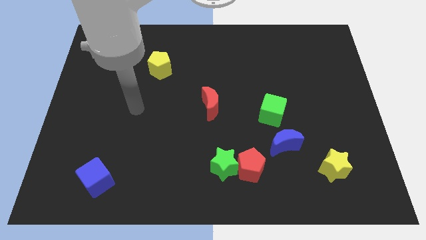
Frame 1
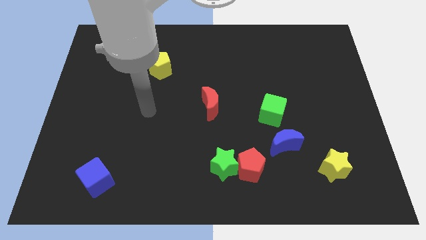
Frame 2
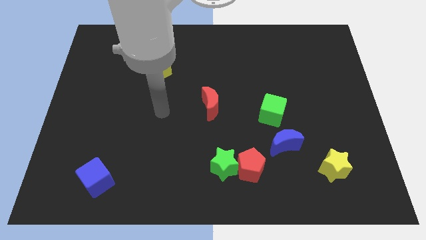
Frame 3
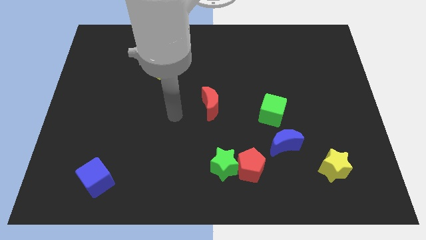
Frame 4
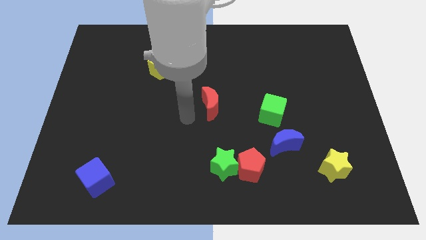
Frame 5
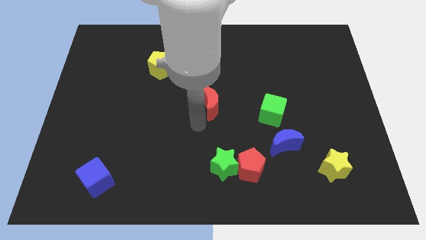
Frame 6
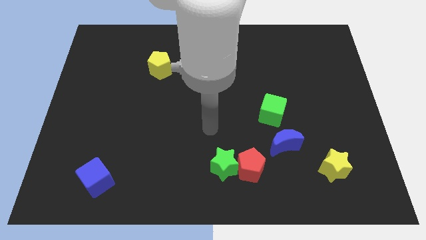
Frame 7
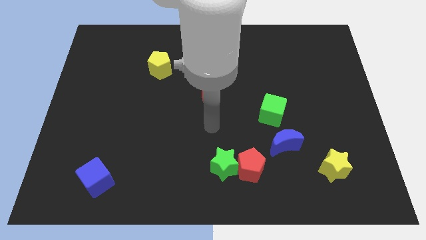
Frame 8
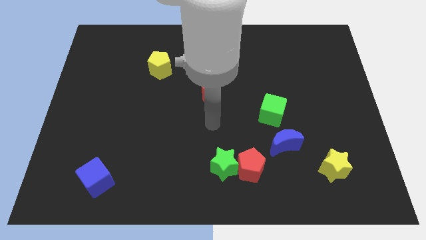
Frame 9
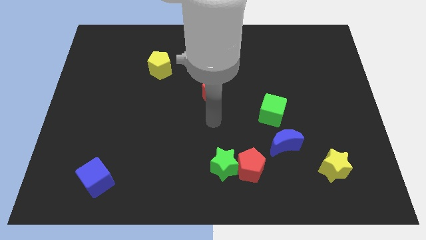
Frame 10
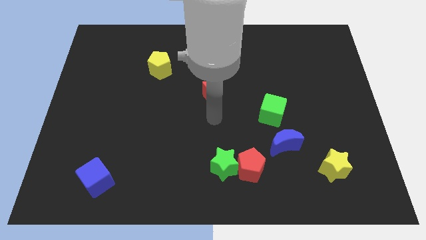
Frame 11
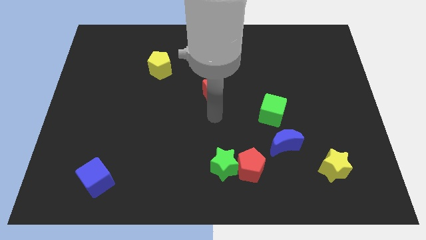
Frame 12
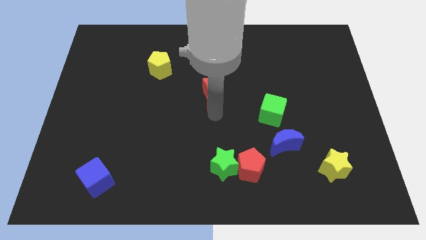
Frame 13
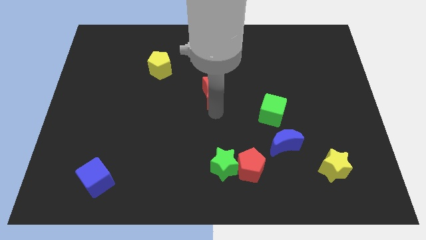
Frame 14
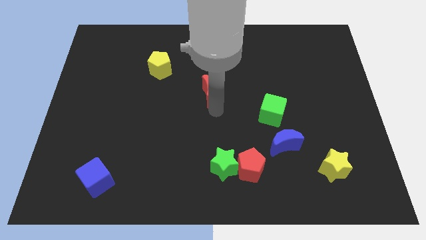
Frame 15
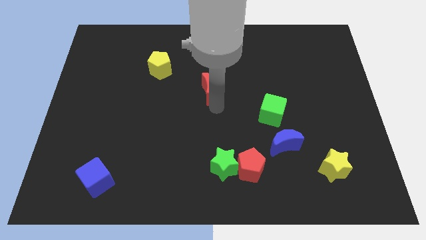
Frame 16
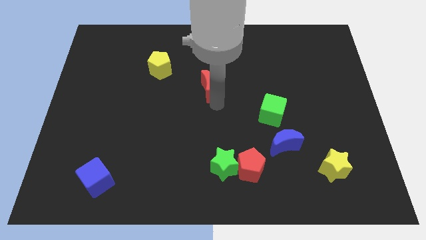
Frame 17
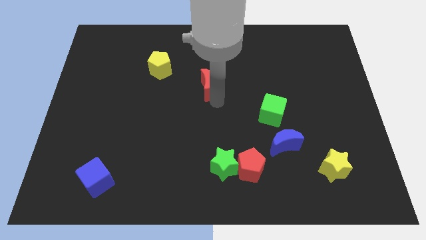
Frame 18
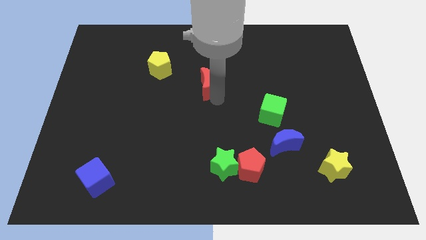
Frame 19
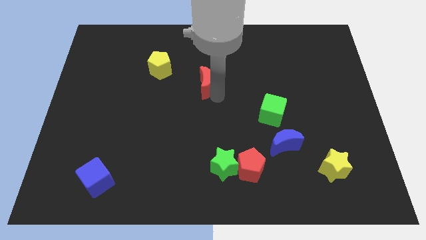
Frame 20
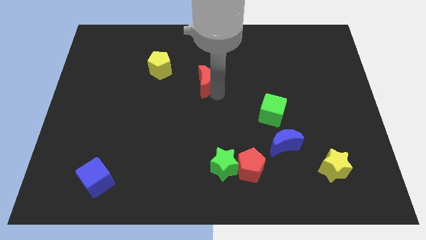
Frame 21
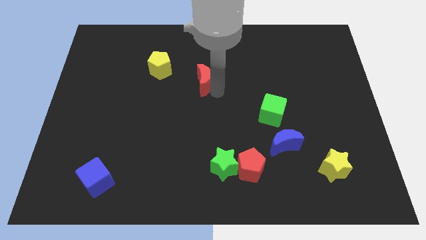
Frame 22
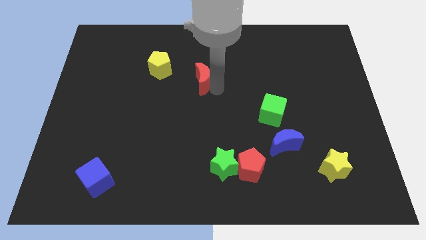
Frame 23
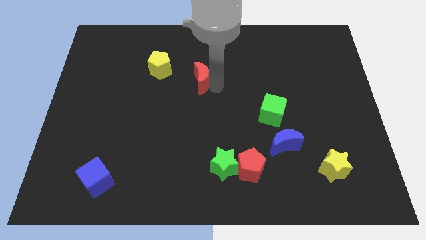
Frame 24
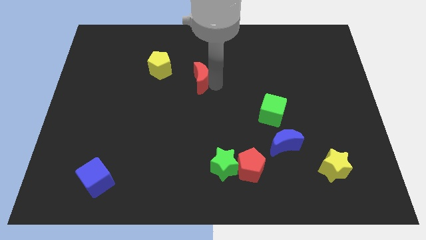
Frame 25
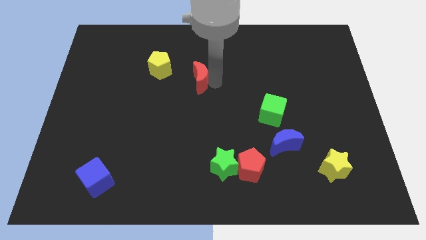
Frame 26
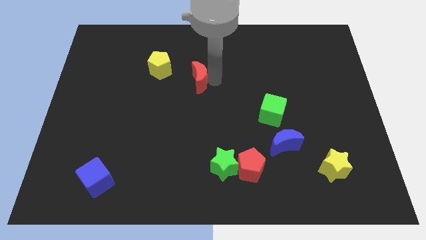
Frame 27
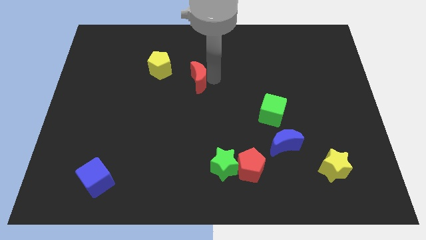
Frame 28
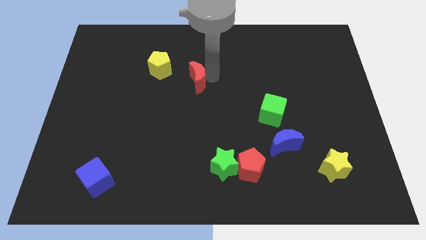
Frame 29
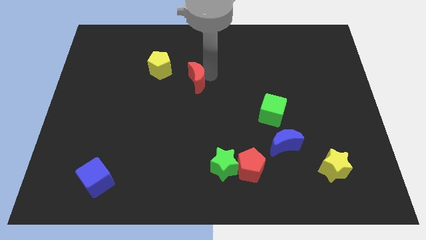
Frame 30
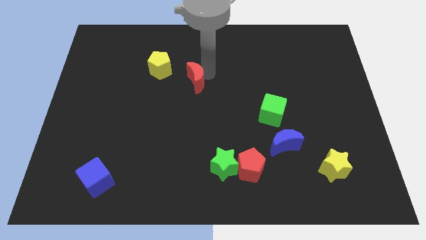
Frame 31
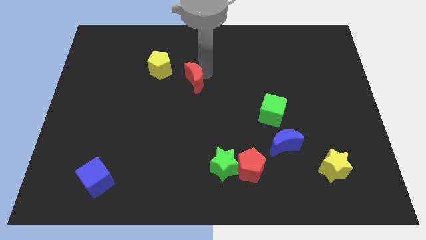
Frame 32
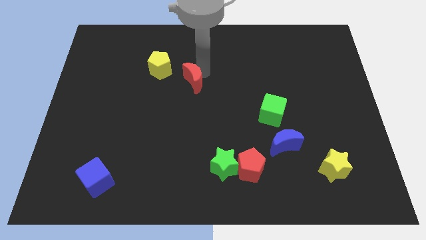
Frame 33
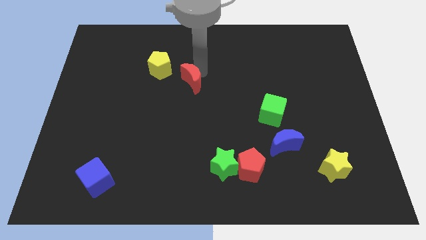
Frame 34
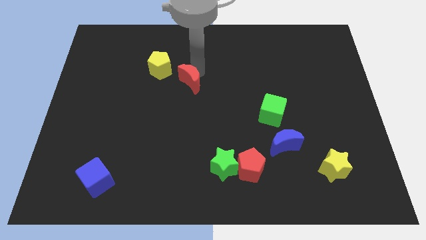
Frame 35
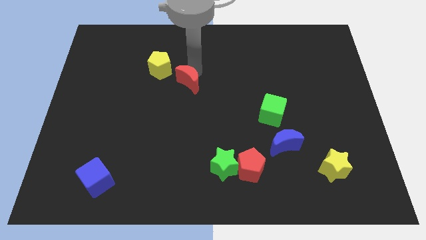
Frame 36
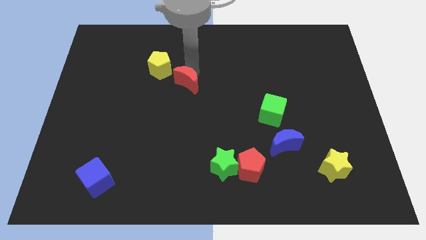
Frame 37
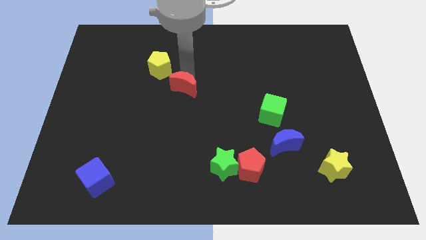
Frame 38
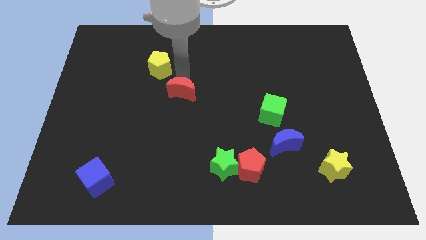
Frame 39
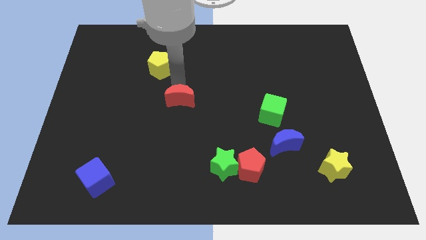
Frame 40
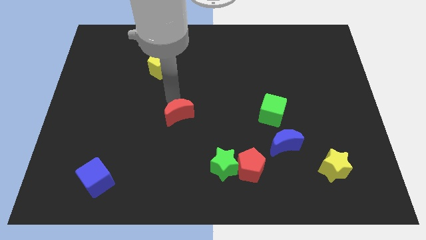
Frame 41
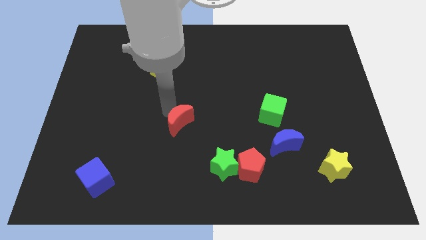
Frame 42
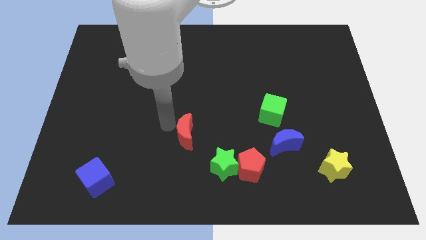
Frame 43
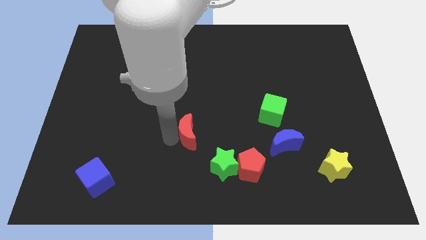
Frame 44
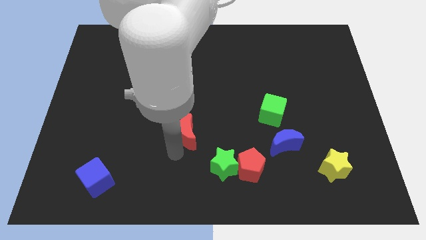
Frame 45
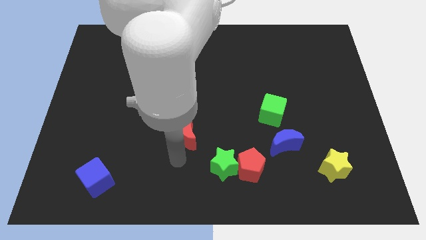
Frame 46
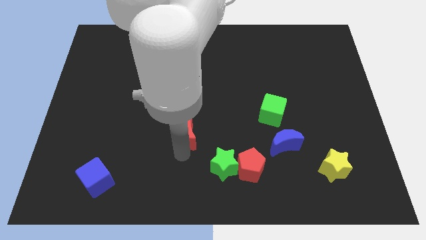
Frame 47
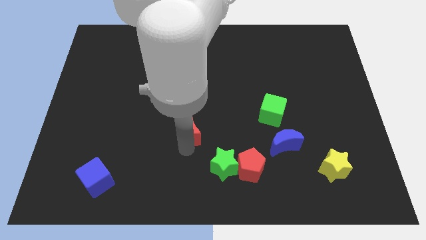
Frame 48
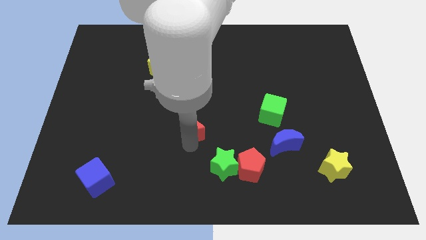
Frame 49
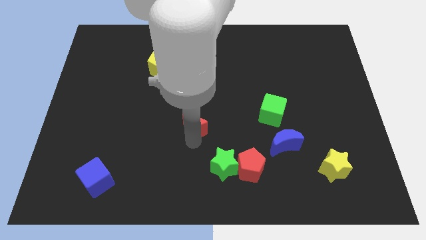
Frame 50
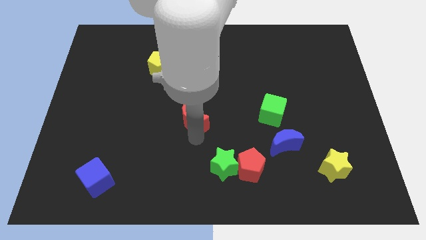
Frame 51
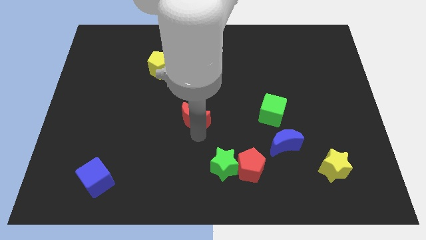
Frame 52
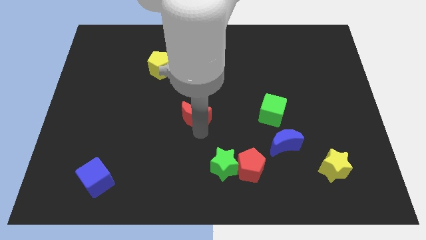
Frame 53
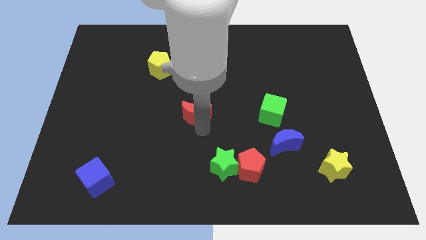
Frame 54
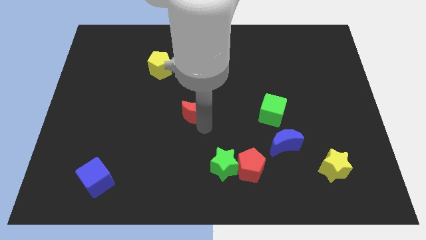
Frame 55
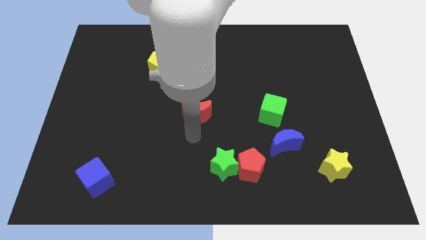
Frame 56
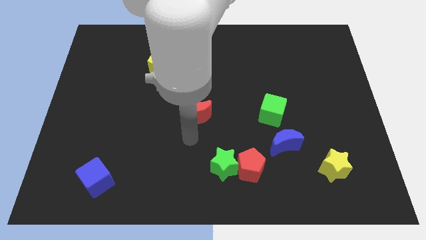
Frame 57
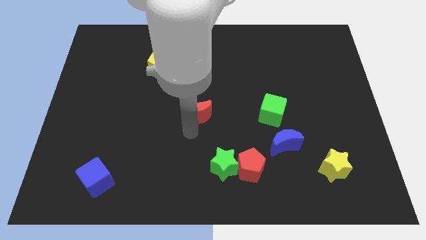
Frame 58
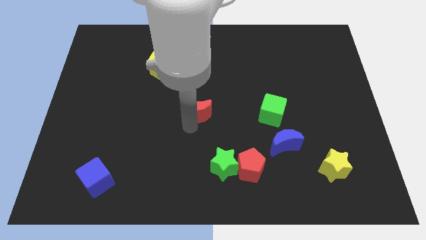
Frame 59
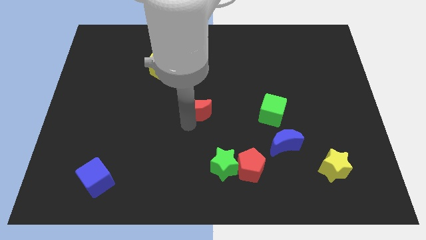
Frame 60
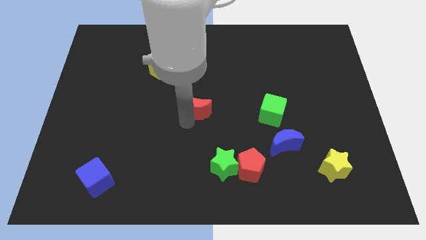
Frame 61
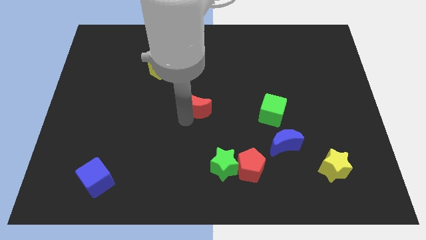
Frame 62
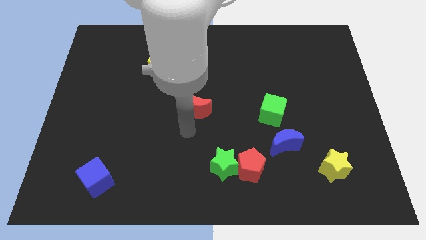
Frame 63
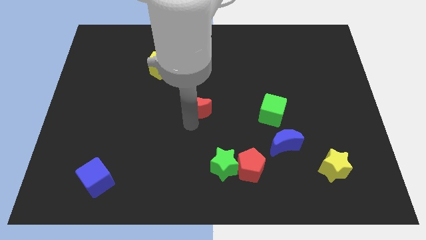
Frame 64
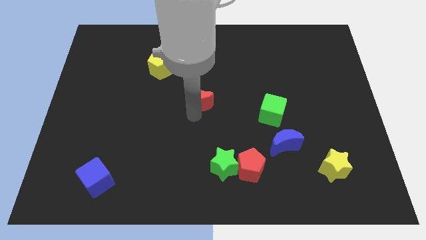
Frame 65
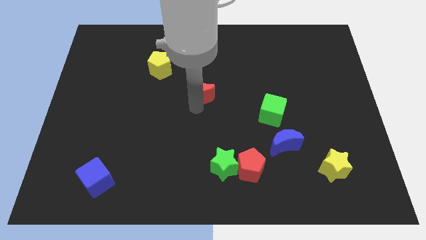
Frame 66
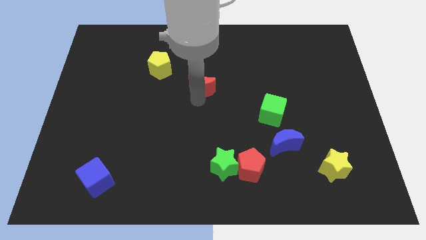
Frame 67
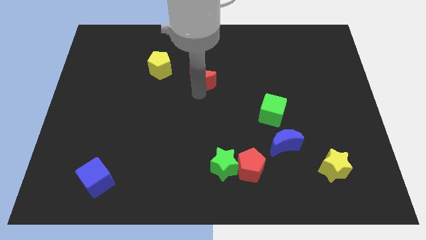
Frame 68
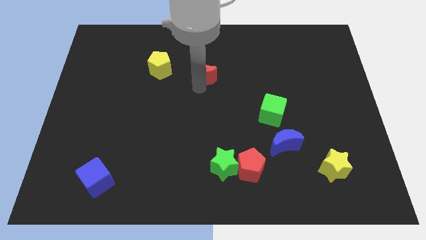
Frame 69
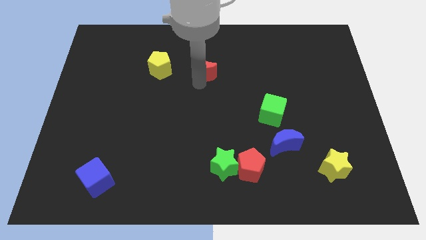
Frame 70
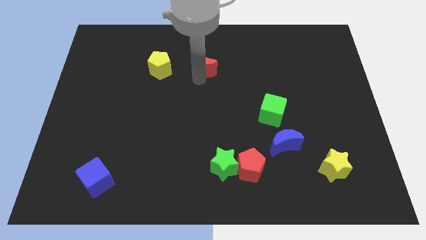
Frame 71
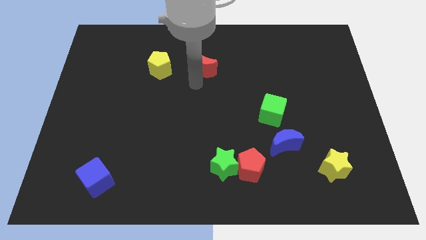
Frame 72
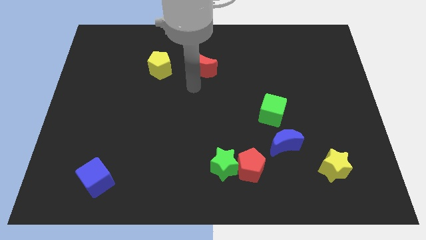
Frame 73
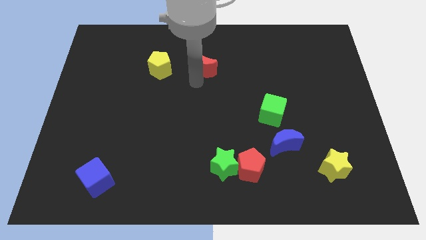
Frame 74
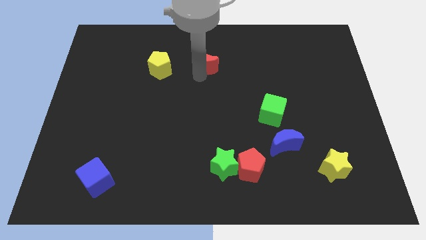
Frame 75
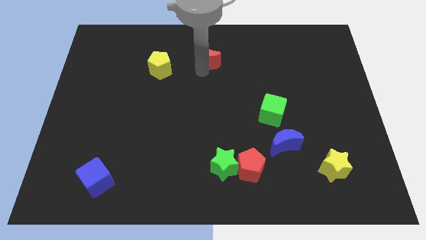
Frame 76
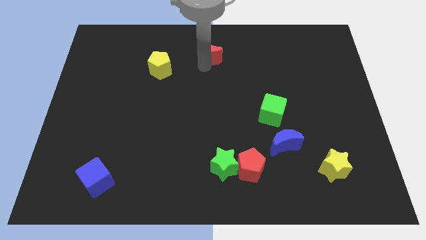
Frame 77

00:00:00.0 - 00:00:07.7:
push the red moon to the towards your base
